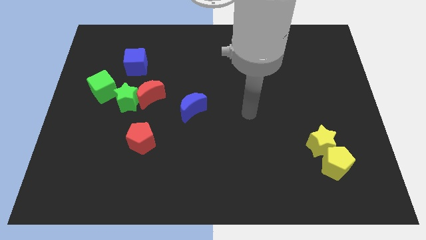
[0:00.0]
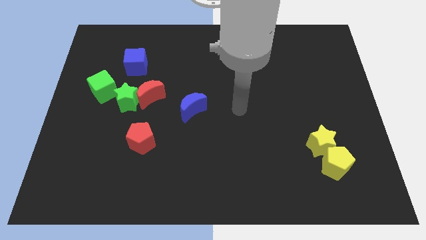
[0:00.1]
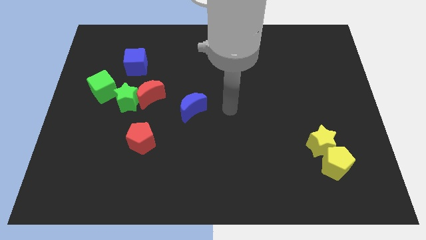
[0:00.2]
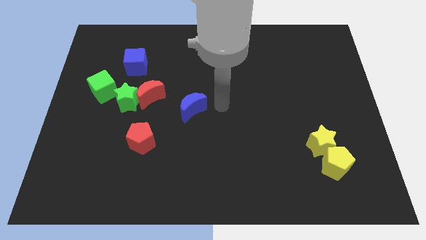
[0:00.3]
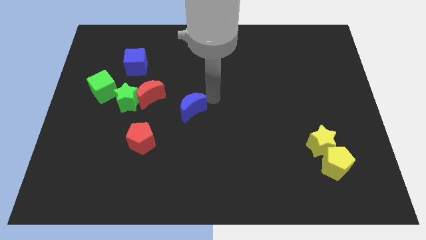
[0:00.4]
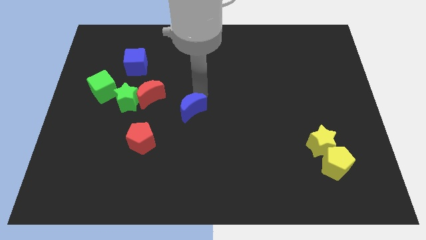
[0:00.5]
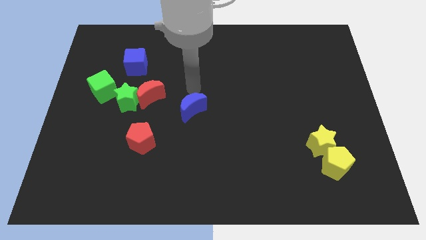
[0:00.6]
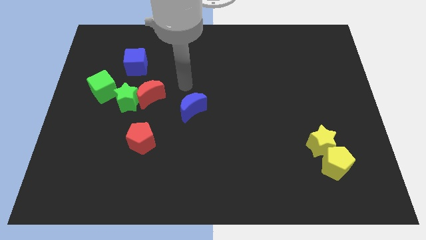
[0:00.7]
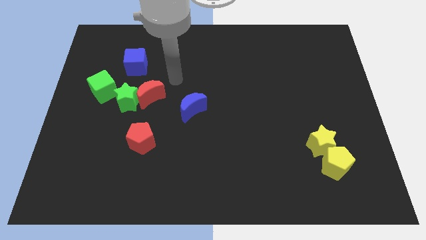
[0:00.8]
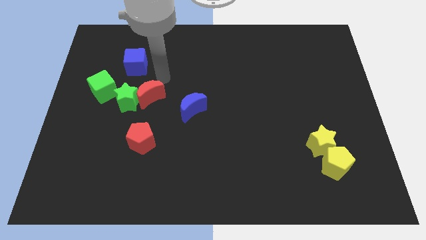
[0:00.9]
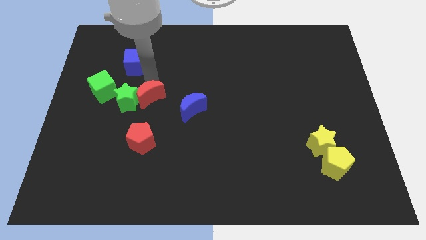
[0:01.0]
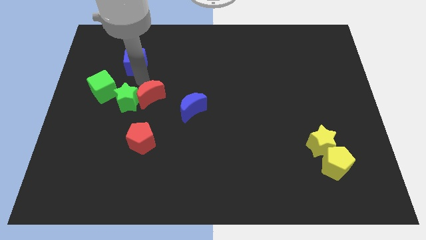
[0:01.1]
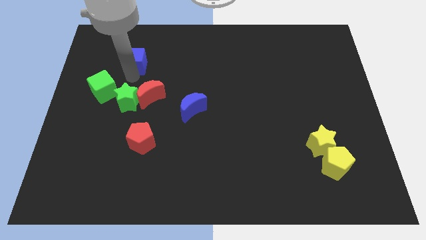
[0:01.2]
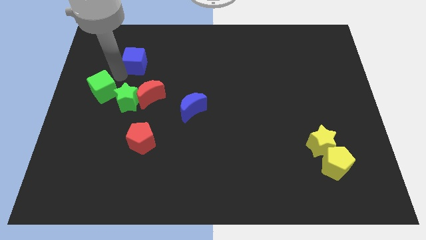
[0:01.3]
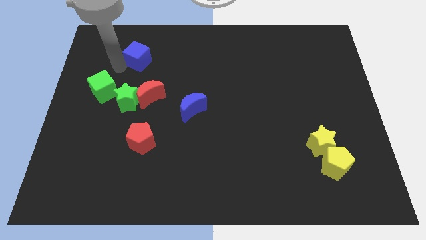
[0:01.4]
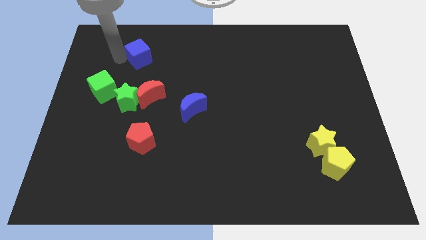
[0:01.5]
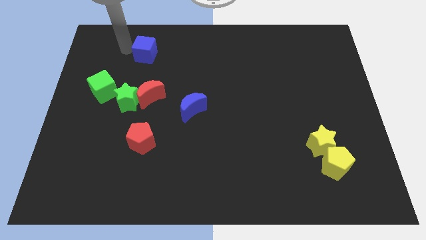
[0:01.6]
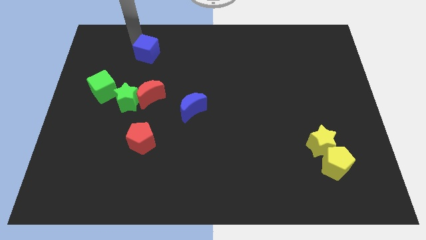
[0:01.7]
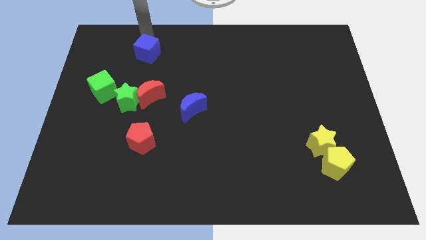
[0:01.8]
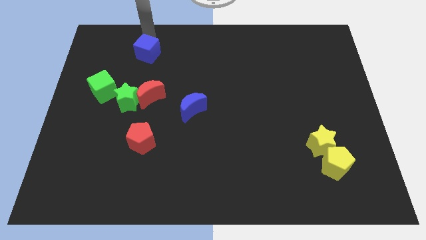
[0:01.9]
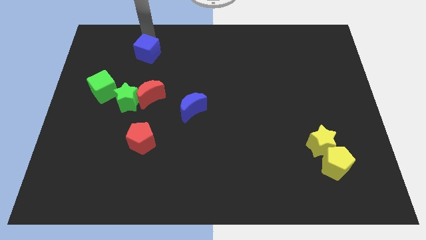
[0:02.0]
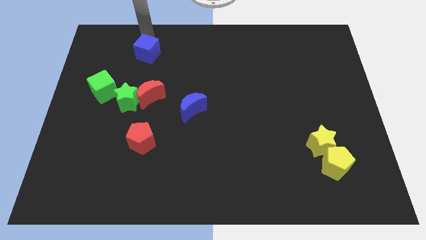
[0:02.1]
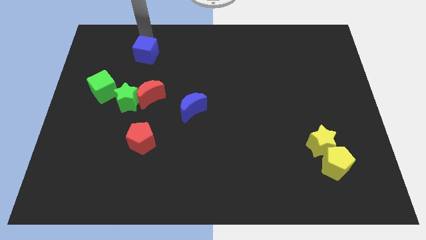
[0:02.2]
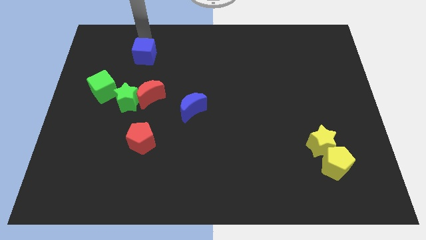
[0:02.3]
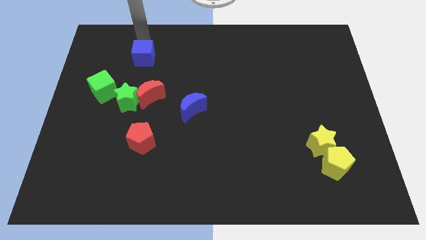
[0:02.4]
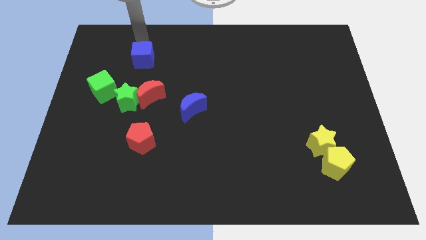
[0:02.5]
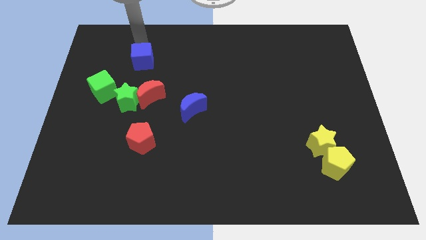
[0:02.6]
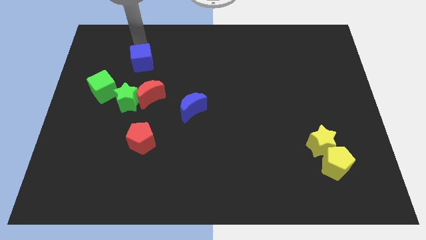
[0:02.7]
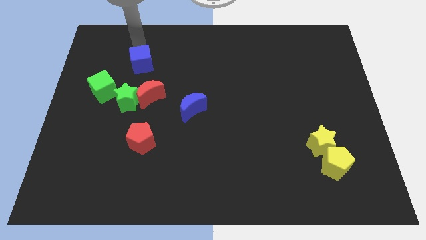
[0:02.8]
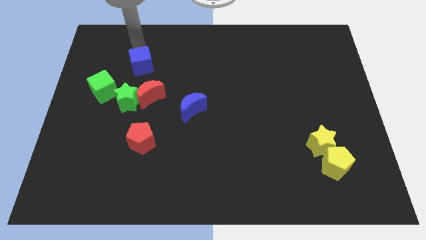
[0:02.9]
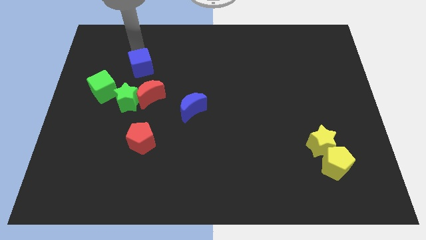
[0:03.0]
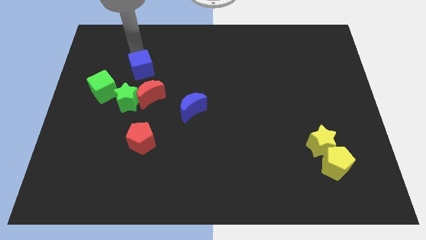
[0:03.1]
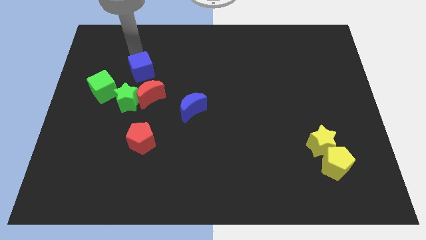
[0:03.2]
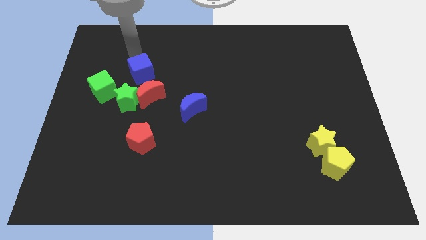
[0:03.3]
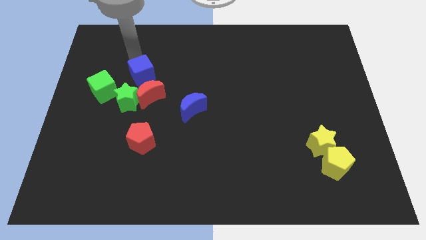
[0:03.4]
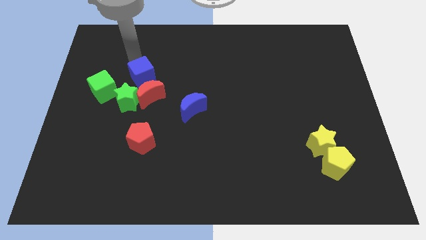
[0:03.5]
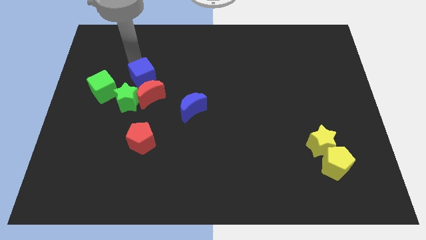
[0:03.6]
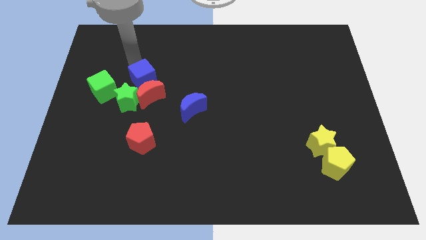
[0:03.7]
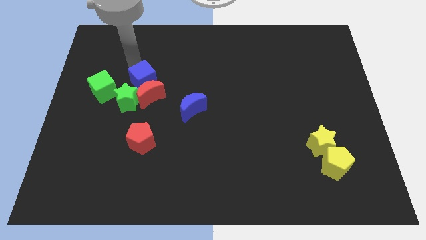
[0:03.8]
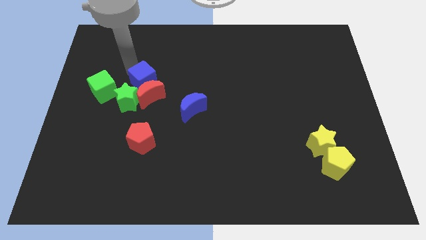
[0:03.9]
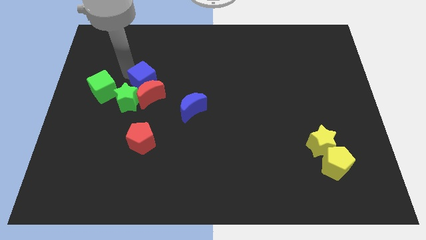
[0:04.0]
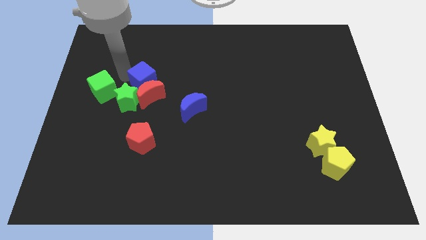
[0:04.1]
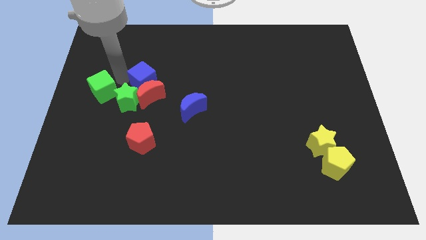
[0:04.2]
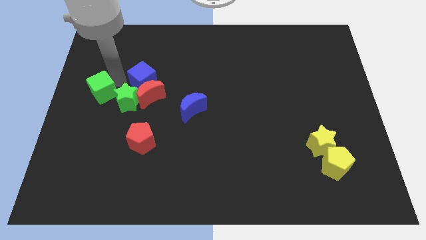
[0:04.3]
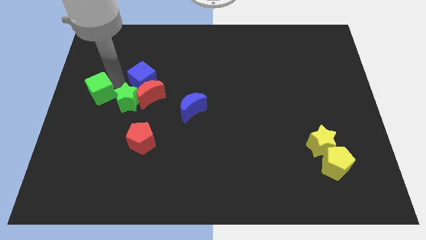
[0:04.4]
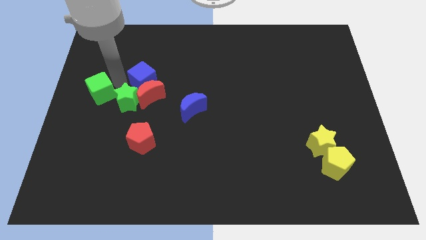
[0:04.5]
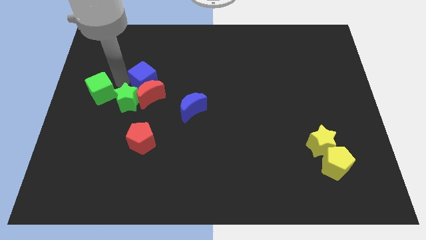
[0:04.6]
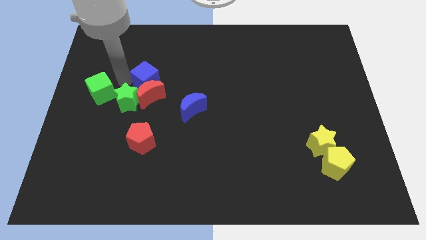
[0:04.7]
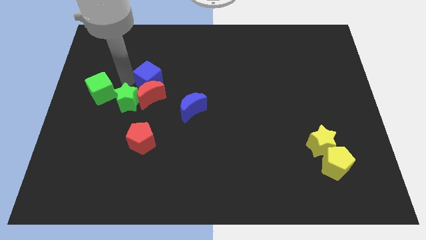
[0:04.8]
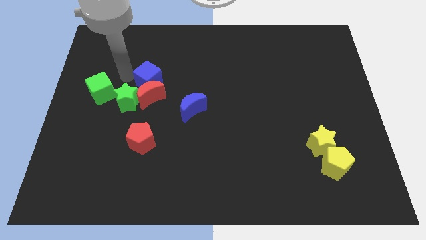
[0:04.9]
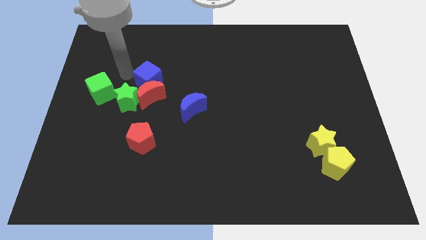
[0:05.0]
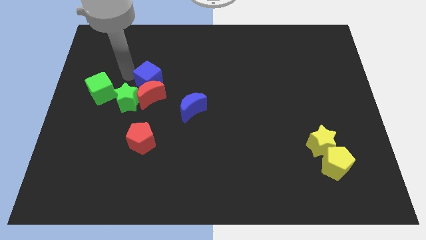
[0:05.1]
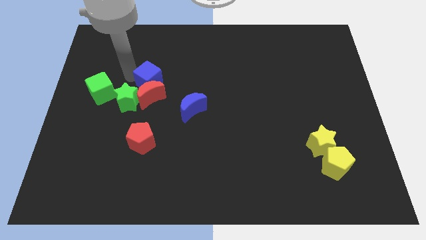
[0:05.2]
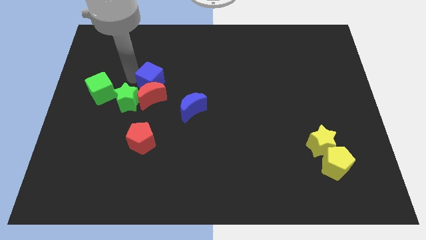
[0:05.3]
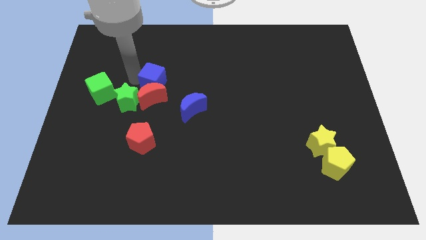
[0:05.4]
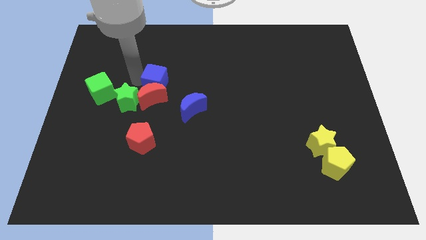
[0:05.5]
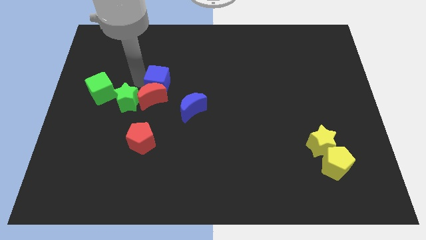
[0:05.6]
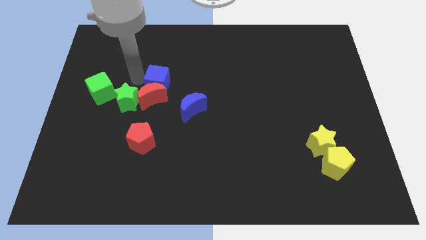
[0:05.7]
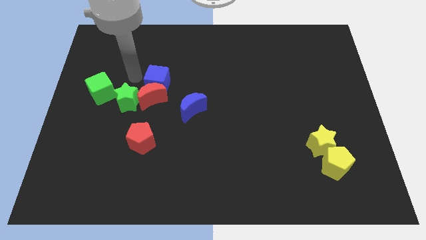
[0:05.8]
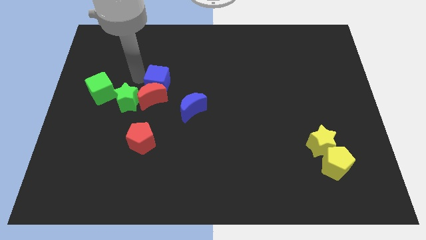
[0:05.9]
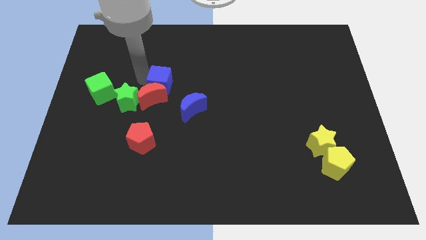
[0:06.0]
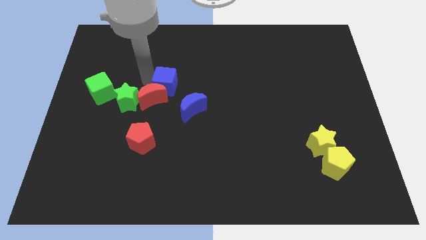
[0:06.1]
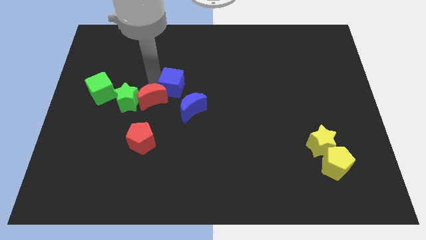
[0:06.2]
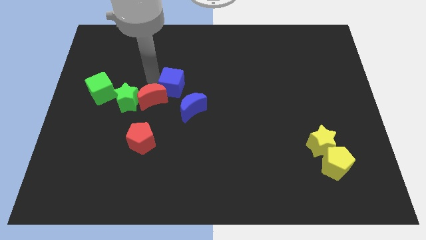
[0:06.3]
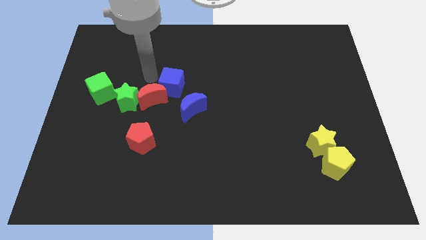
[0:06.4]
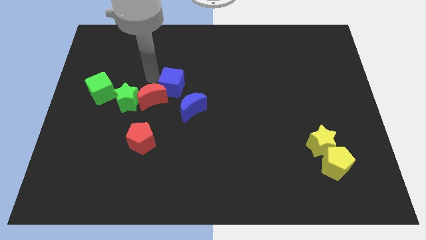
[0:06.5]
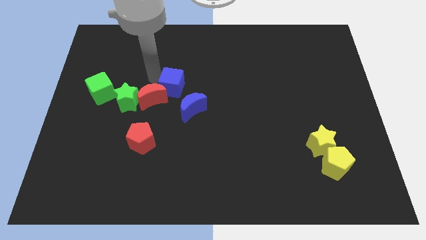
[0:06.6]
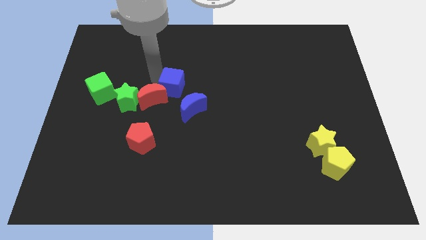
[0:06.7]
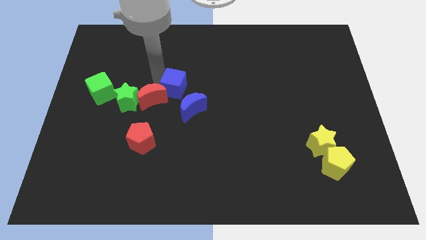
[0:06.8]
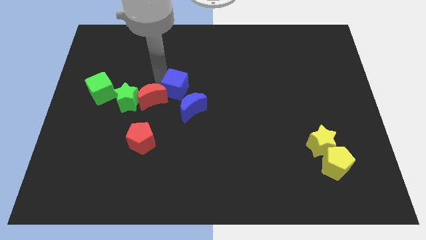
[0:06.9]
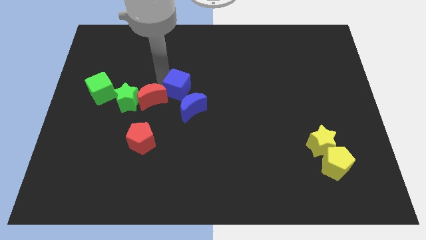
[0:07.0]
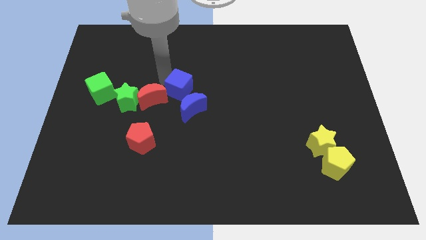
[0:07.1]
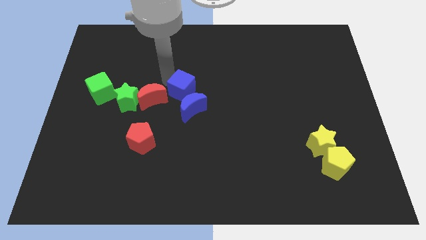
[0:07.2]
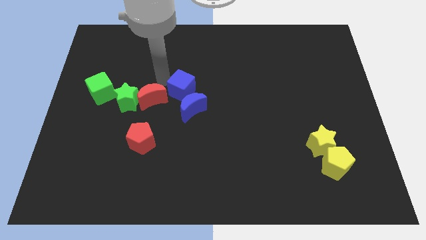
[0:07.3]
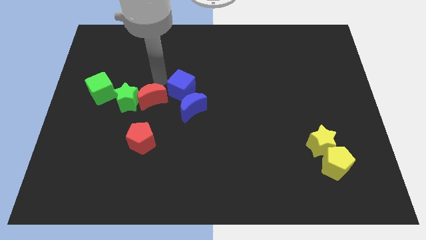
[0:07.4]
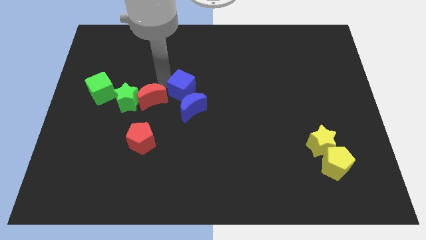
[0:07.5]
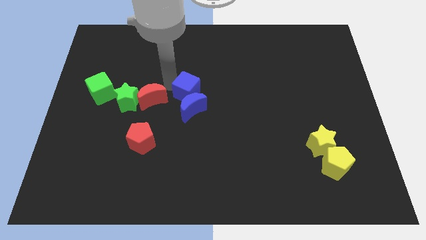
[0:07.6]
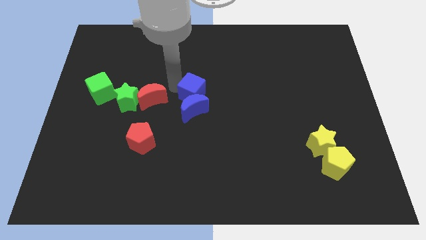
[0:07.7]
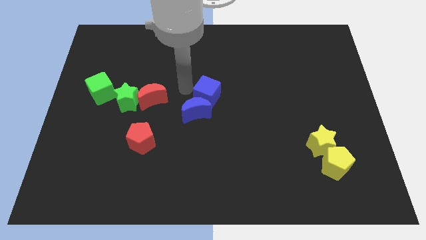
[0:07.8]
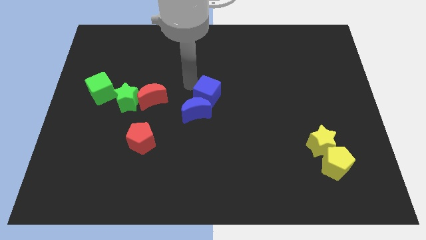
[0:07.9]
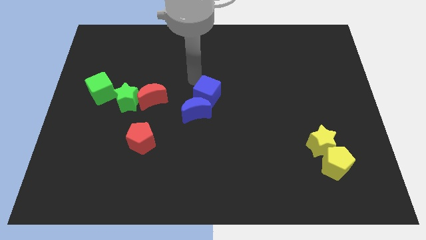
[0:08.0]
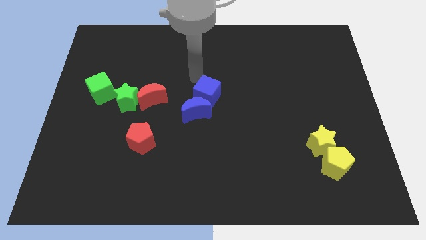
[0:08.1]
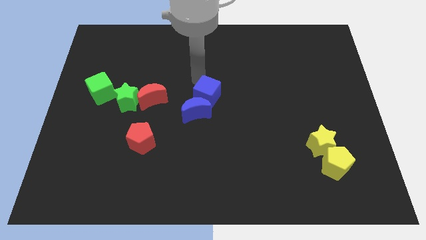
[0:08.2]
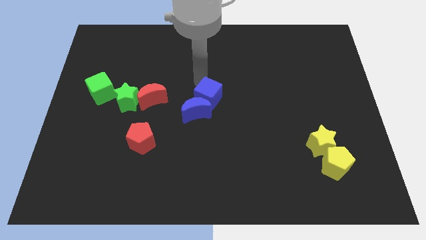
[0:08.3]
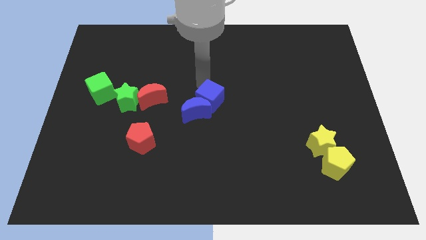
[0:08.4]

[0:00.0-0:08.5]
slide the blue cube diagonally downwards and right
